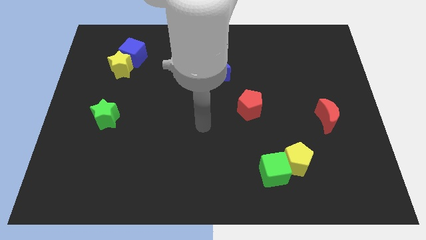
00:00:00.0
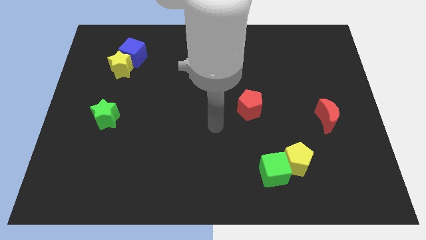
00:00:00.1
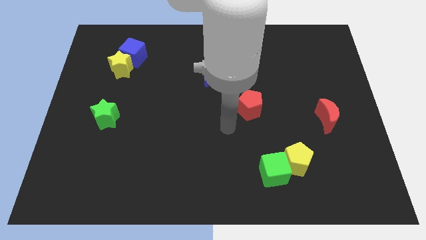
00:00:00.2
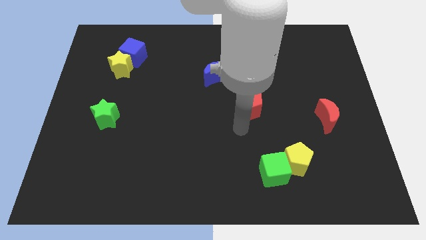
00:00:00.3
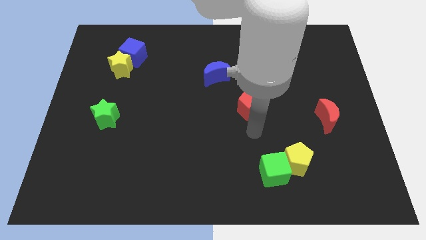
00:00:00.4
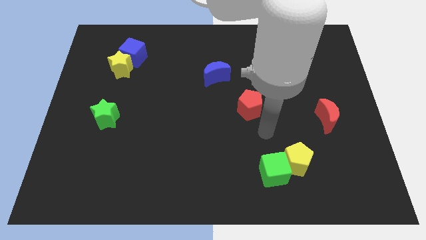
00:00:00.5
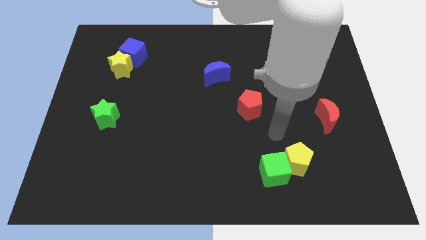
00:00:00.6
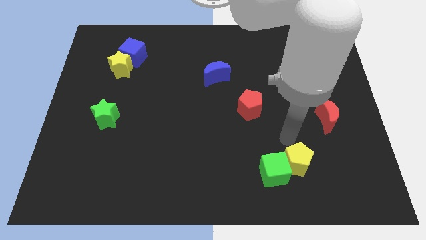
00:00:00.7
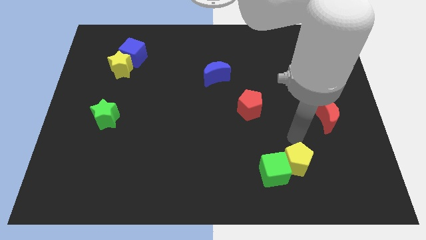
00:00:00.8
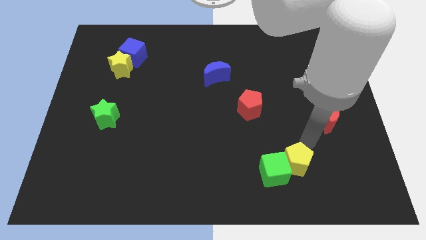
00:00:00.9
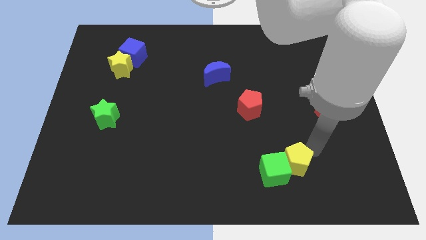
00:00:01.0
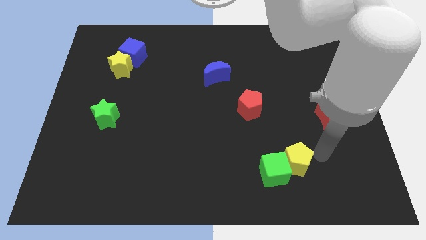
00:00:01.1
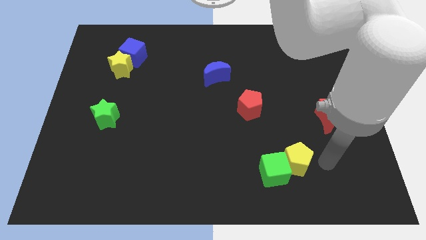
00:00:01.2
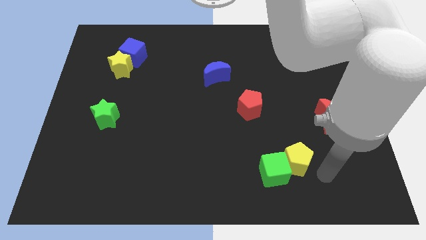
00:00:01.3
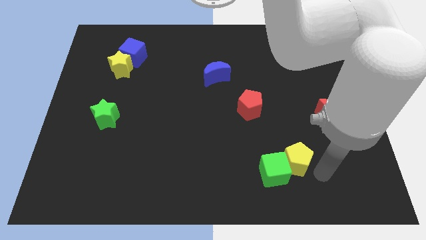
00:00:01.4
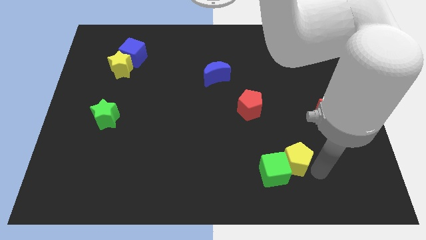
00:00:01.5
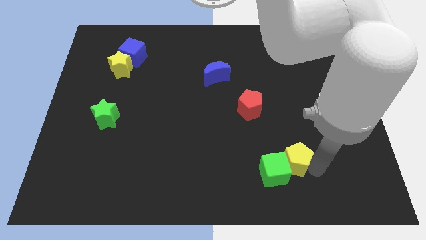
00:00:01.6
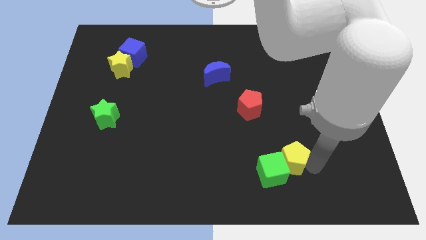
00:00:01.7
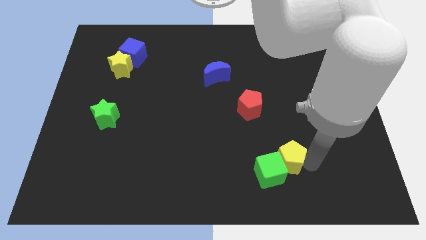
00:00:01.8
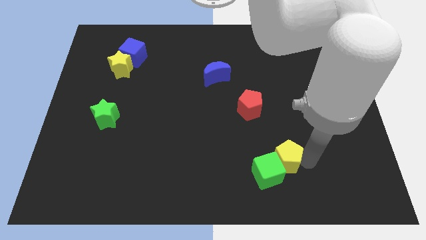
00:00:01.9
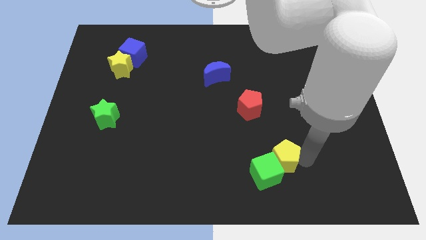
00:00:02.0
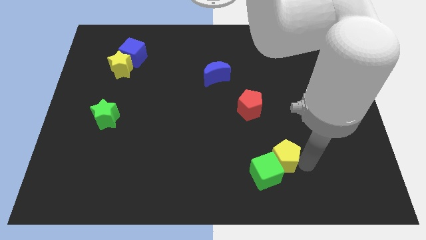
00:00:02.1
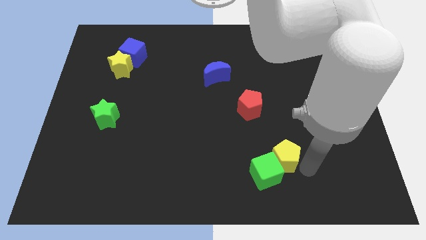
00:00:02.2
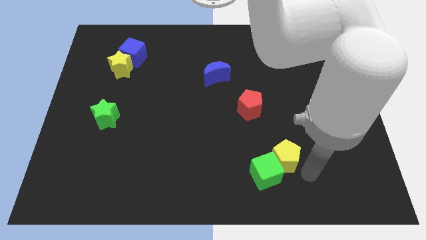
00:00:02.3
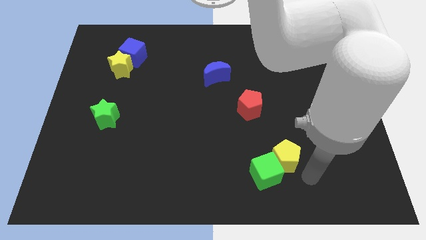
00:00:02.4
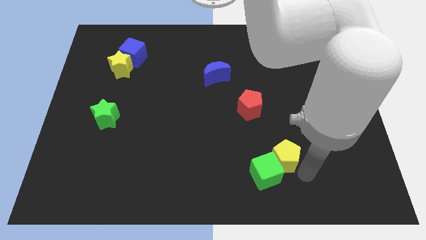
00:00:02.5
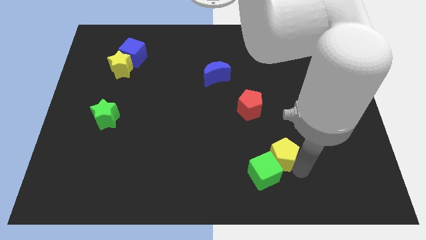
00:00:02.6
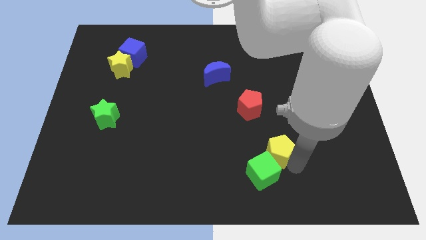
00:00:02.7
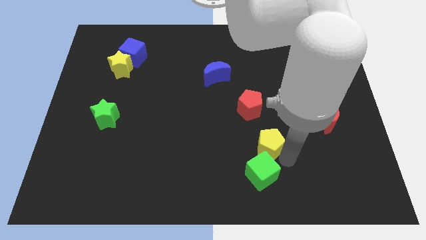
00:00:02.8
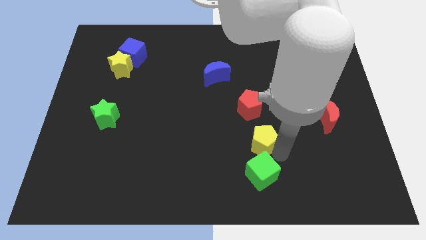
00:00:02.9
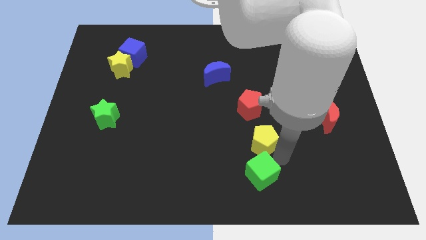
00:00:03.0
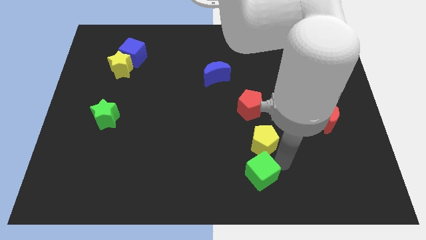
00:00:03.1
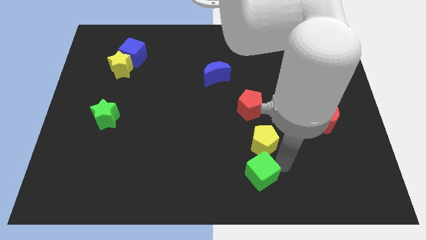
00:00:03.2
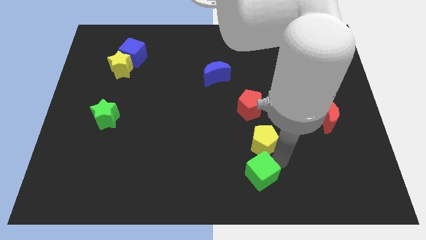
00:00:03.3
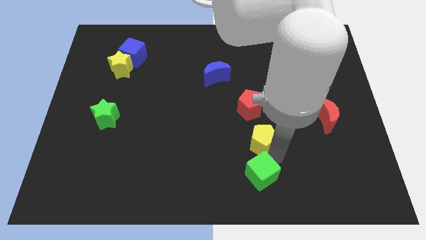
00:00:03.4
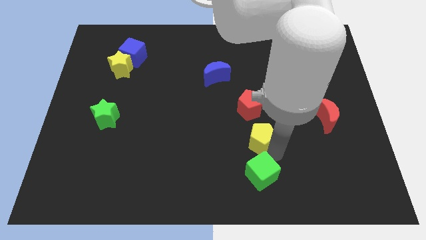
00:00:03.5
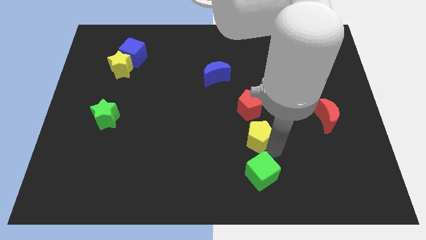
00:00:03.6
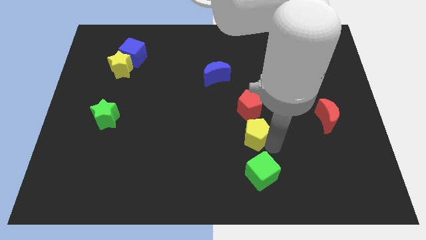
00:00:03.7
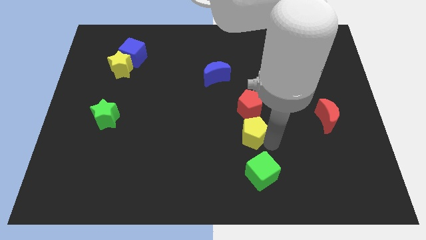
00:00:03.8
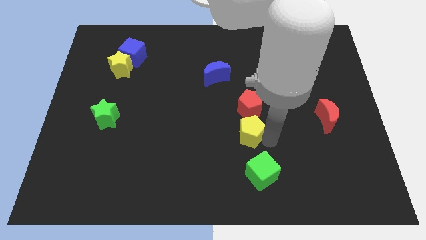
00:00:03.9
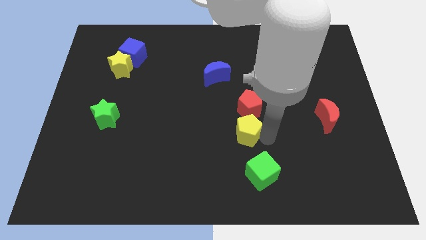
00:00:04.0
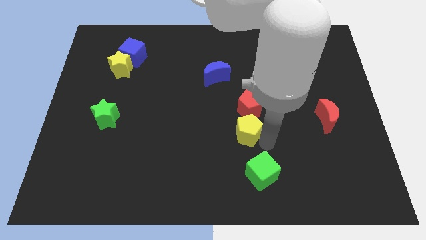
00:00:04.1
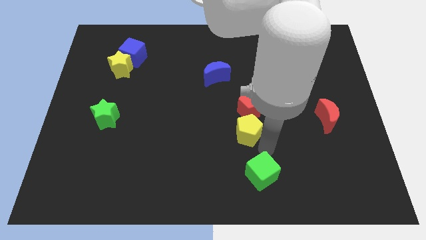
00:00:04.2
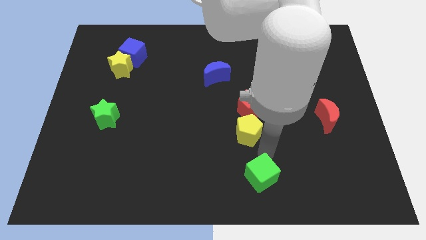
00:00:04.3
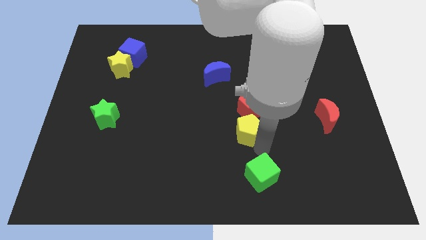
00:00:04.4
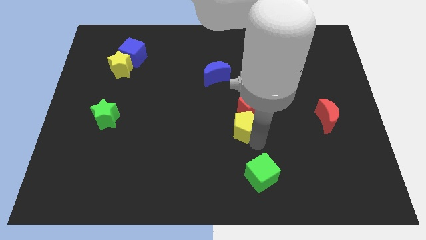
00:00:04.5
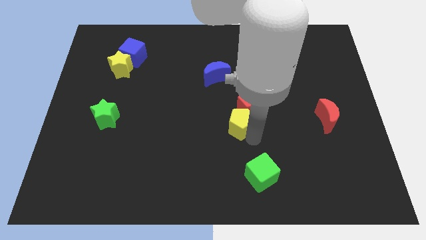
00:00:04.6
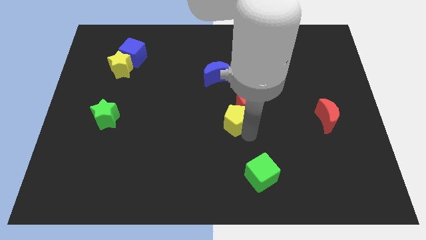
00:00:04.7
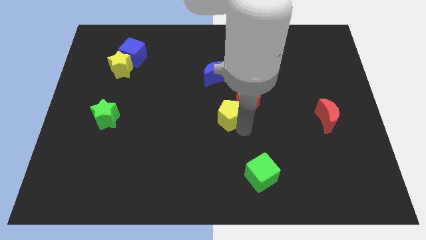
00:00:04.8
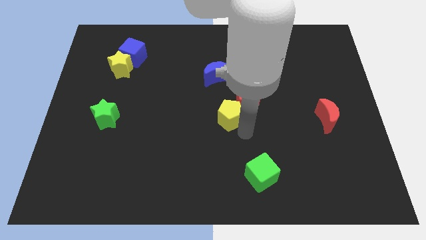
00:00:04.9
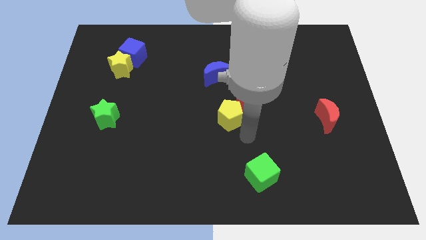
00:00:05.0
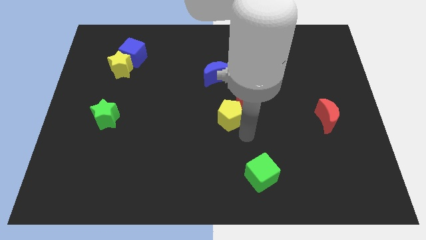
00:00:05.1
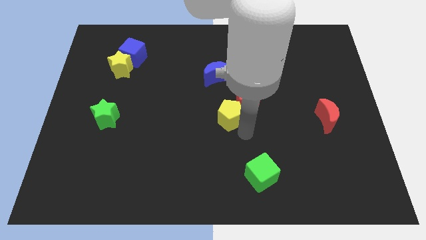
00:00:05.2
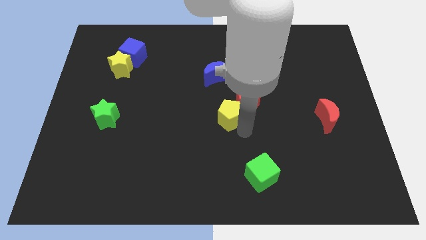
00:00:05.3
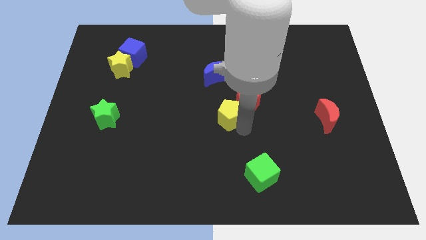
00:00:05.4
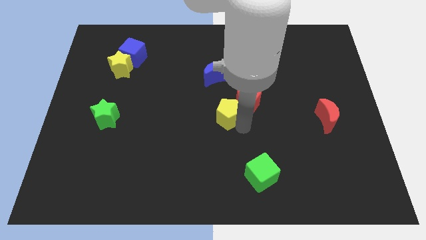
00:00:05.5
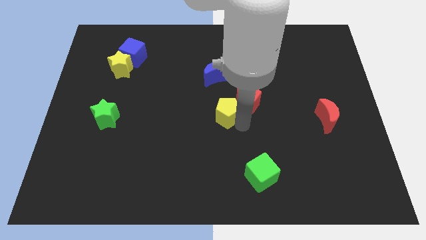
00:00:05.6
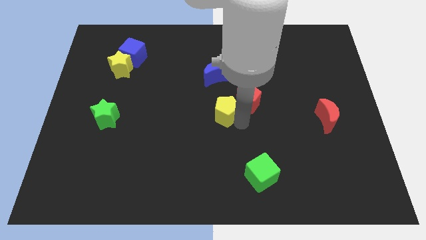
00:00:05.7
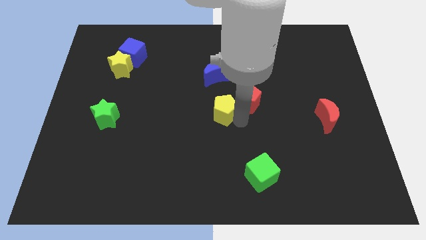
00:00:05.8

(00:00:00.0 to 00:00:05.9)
push the yellow pentagon up and then to the left

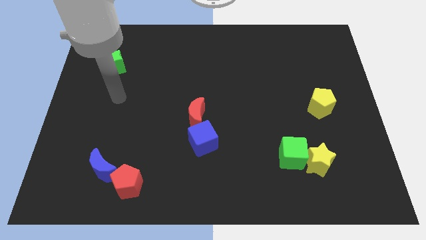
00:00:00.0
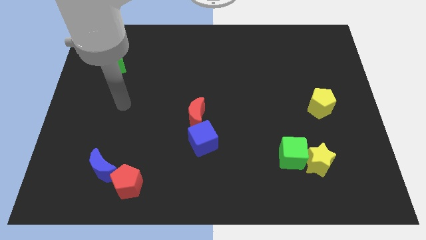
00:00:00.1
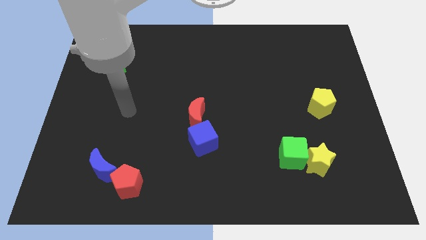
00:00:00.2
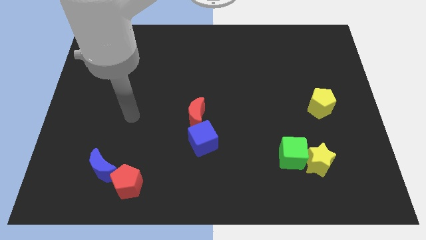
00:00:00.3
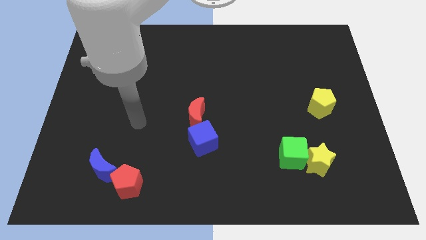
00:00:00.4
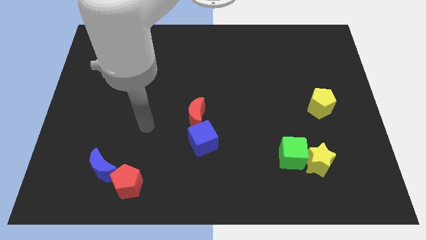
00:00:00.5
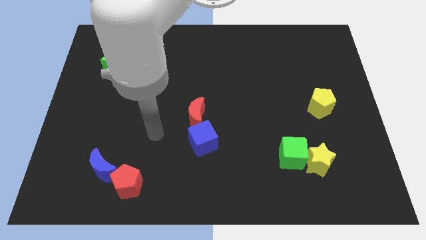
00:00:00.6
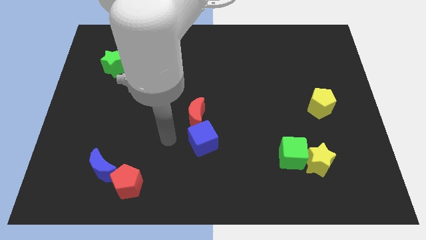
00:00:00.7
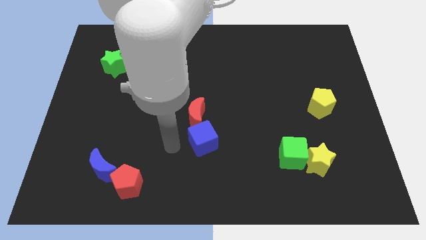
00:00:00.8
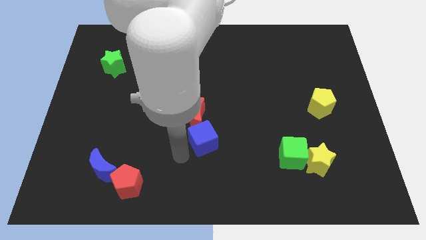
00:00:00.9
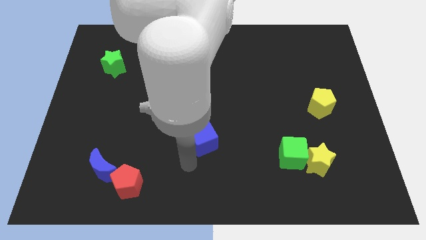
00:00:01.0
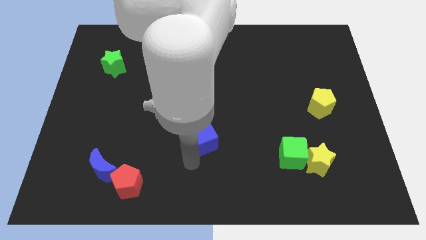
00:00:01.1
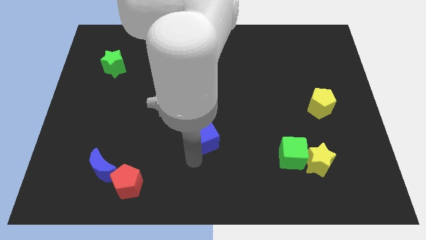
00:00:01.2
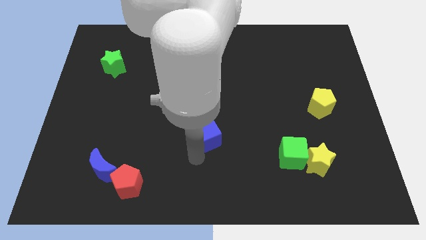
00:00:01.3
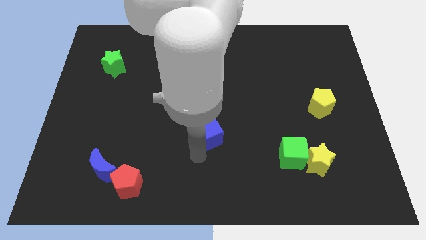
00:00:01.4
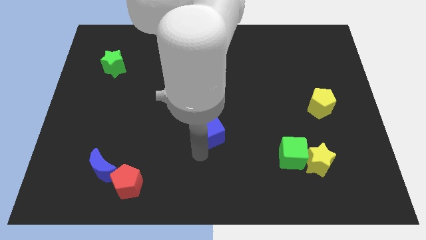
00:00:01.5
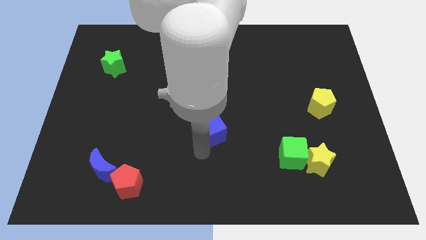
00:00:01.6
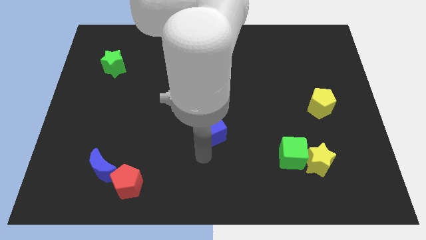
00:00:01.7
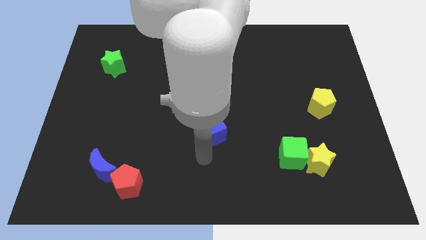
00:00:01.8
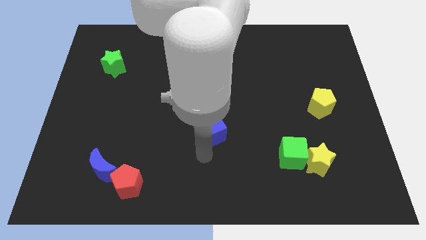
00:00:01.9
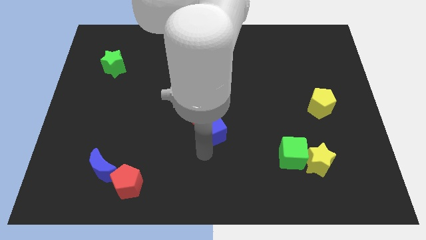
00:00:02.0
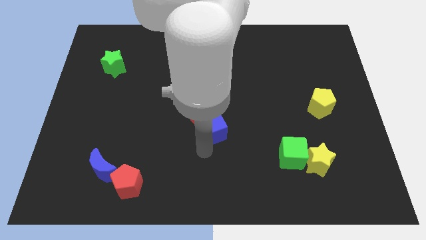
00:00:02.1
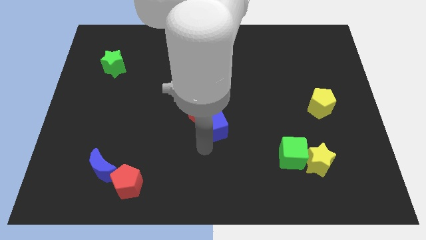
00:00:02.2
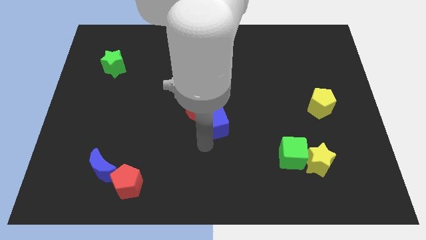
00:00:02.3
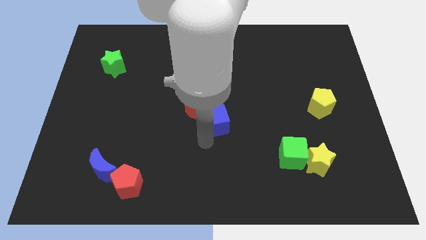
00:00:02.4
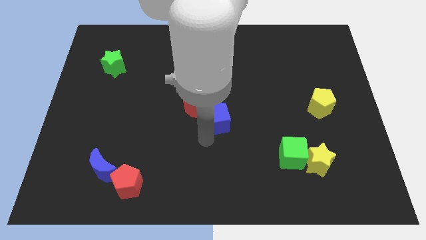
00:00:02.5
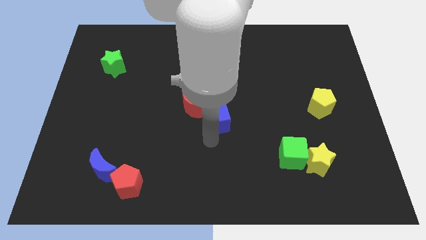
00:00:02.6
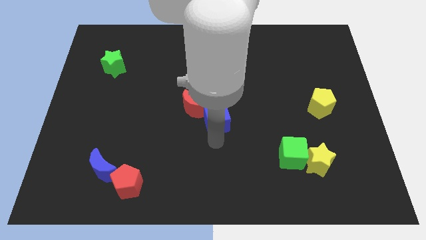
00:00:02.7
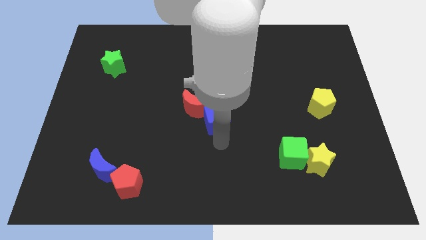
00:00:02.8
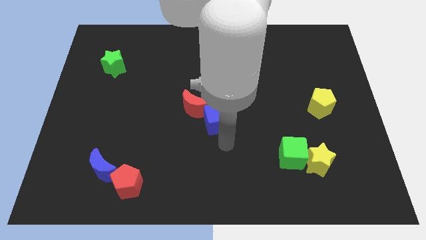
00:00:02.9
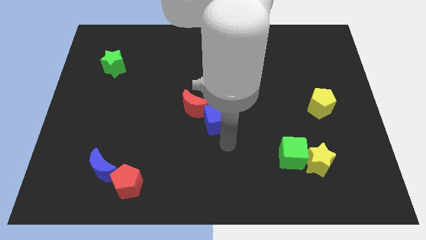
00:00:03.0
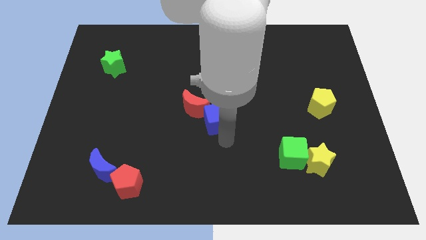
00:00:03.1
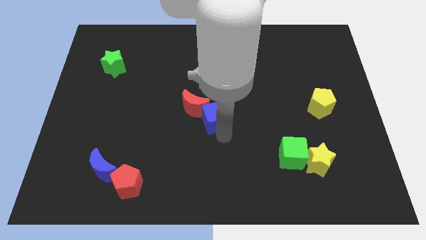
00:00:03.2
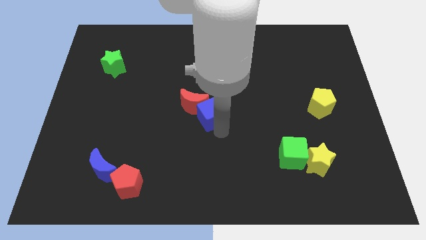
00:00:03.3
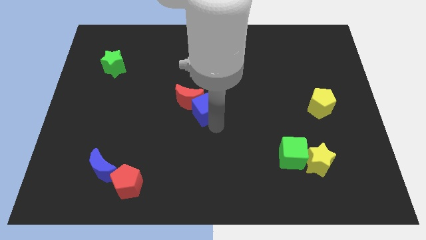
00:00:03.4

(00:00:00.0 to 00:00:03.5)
push the blue cube a bit upwards
